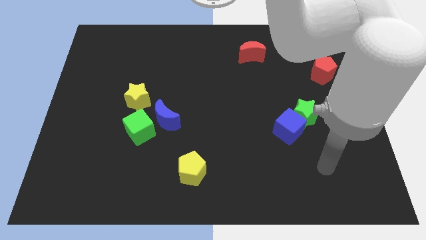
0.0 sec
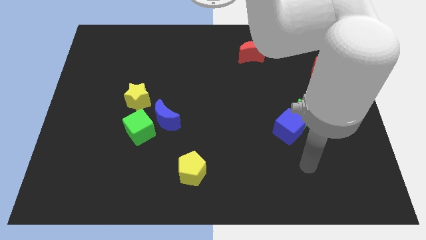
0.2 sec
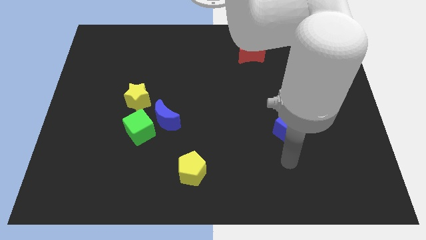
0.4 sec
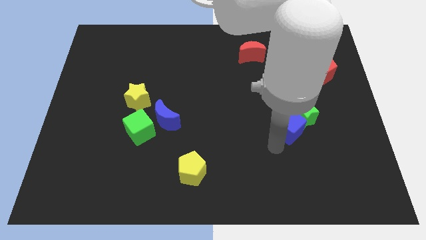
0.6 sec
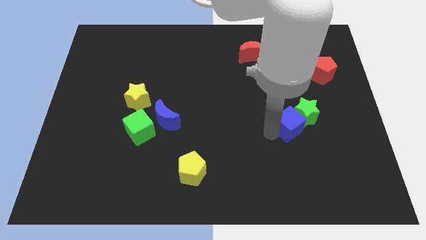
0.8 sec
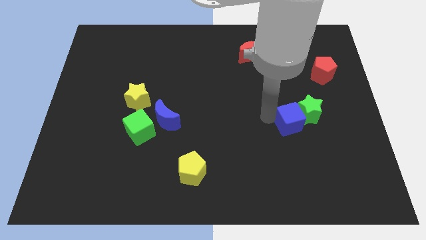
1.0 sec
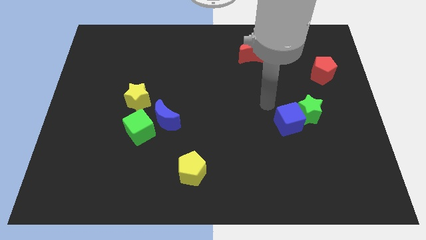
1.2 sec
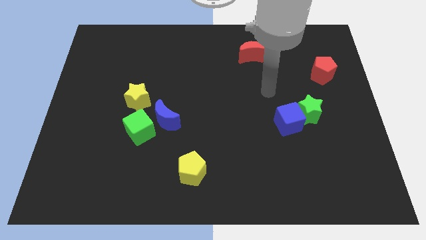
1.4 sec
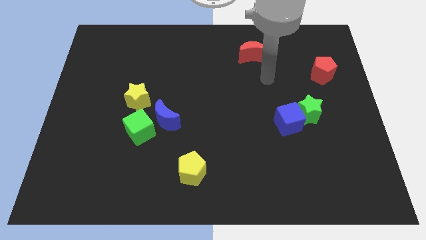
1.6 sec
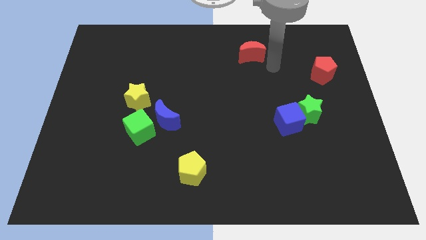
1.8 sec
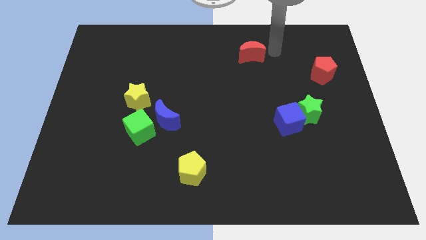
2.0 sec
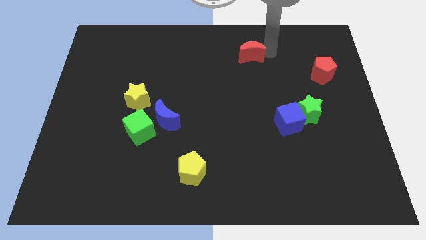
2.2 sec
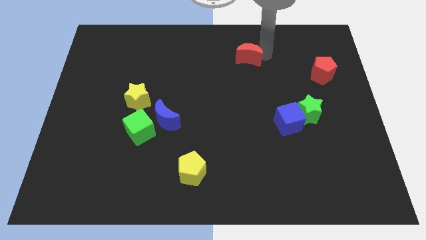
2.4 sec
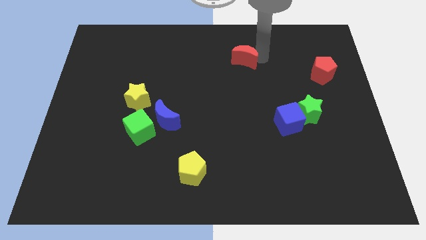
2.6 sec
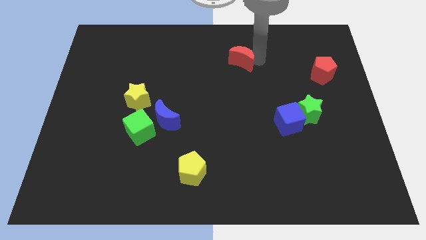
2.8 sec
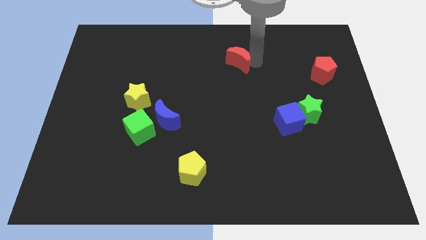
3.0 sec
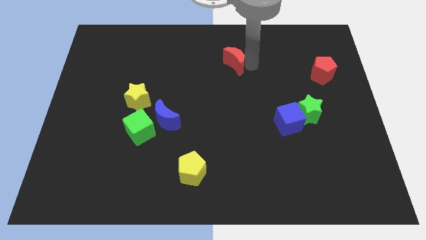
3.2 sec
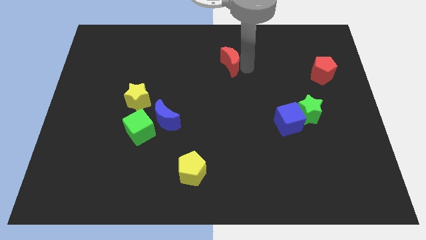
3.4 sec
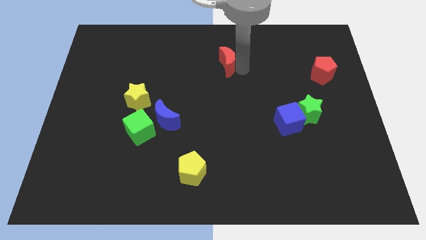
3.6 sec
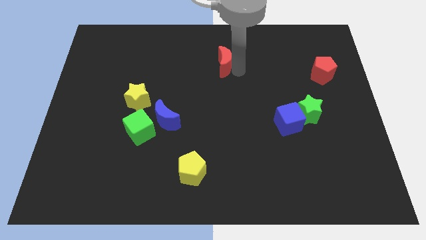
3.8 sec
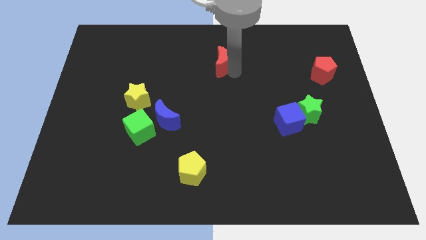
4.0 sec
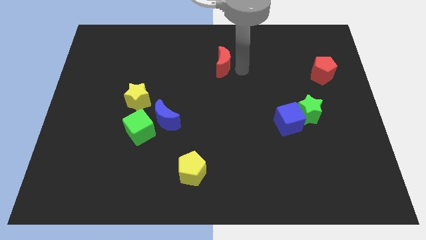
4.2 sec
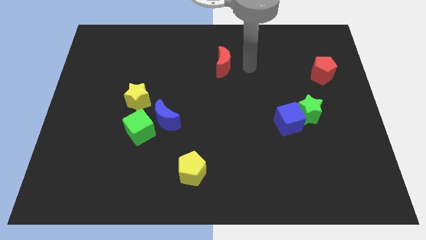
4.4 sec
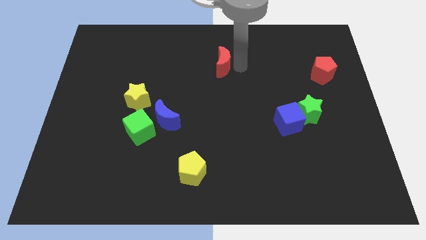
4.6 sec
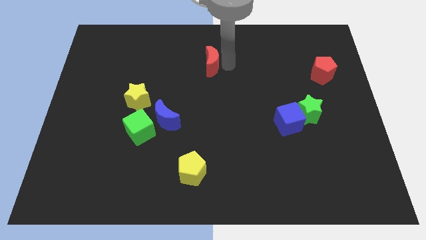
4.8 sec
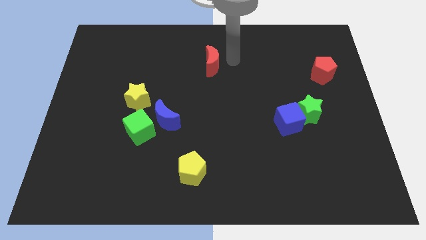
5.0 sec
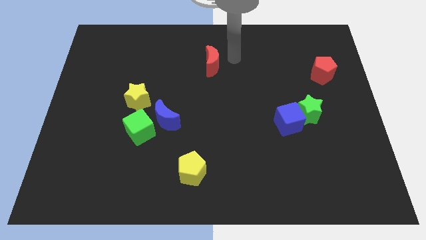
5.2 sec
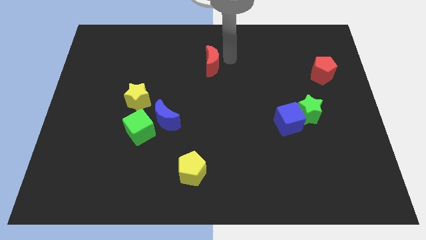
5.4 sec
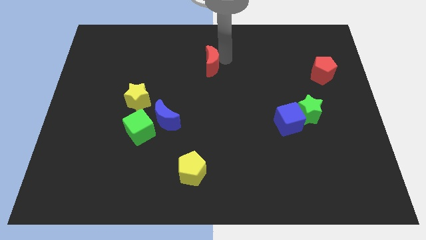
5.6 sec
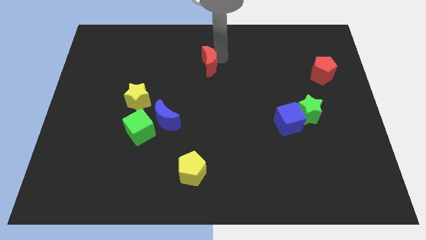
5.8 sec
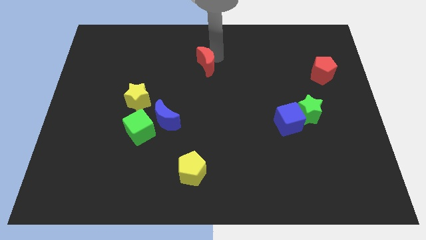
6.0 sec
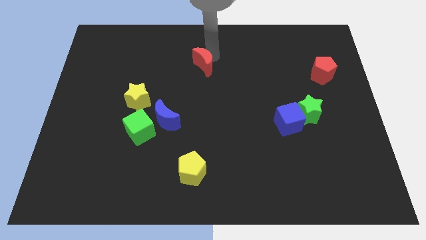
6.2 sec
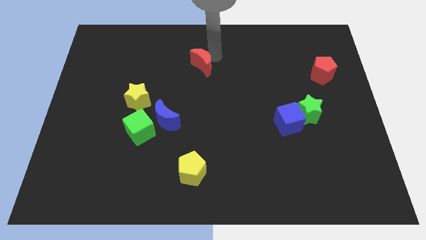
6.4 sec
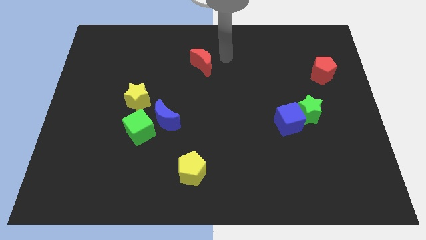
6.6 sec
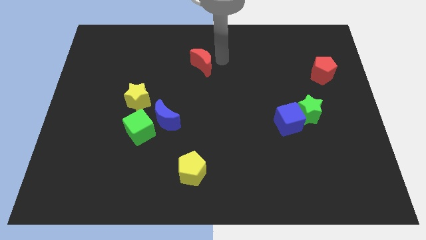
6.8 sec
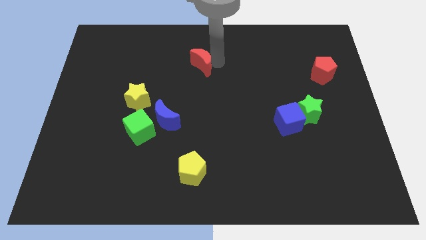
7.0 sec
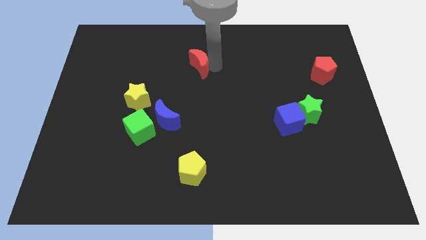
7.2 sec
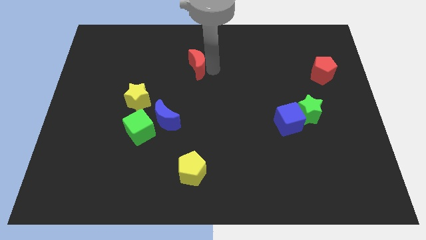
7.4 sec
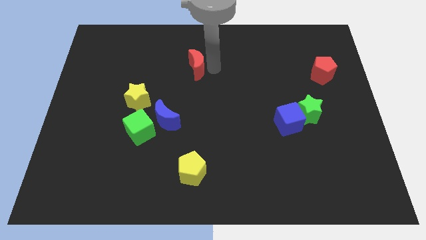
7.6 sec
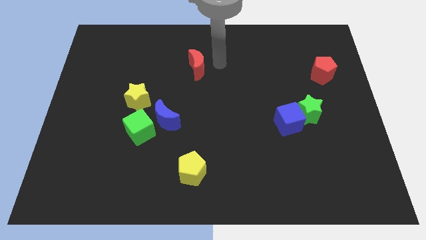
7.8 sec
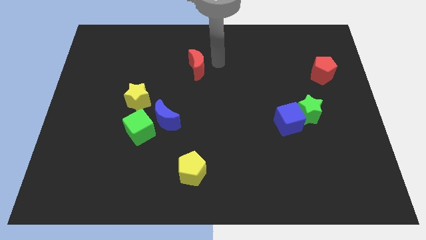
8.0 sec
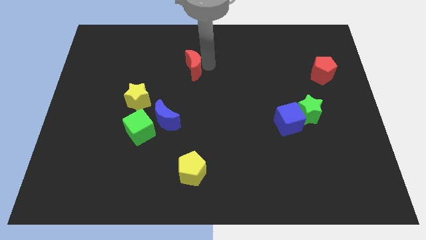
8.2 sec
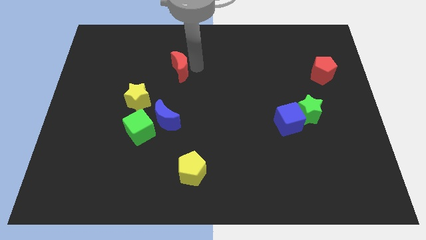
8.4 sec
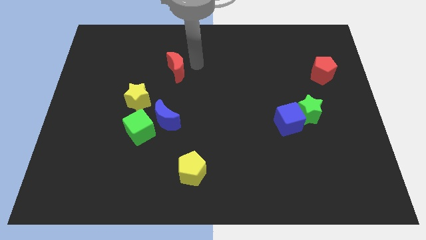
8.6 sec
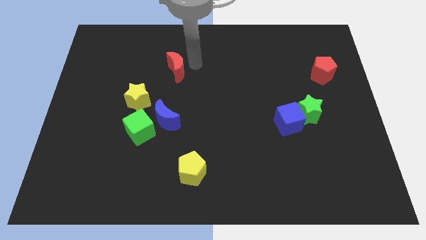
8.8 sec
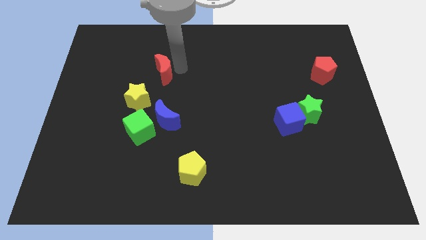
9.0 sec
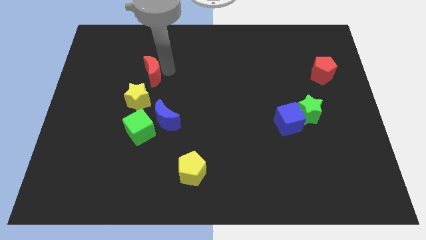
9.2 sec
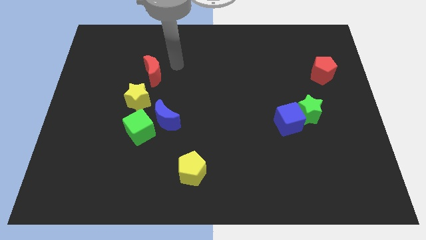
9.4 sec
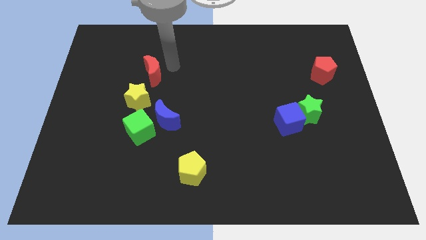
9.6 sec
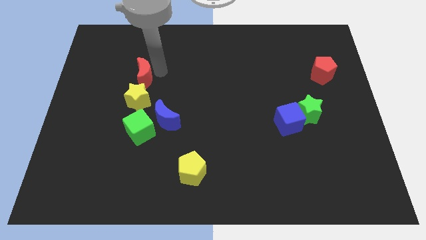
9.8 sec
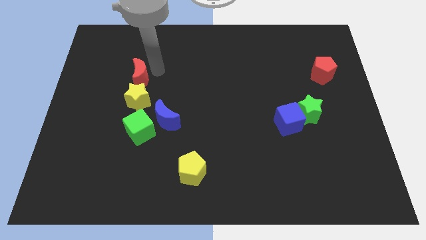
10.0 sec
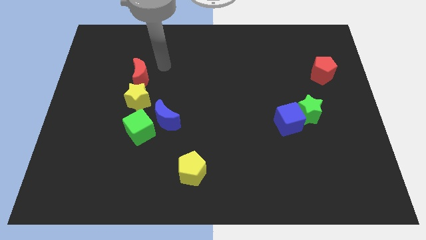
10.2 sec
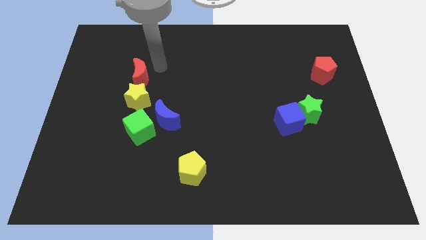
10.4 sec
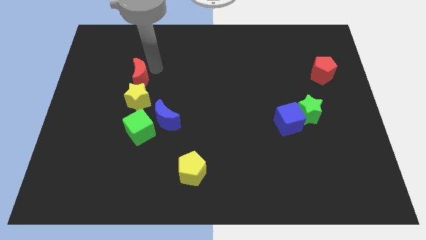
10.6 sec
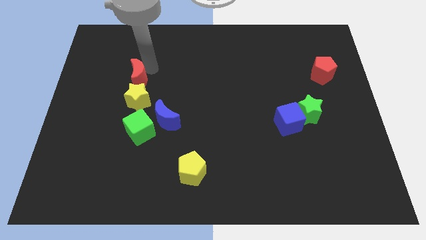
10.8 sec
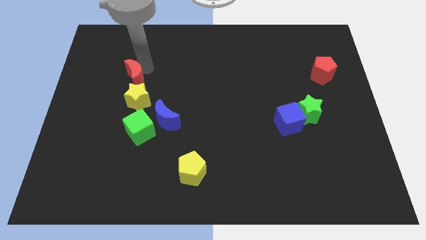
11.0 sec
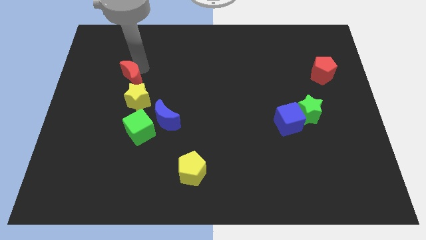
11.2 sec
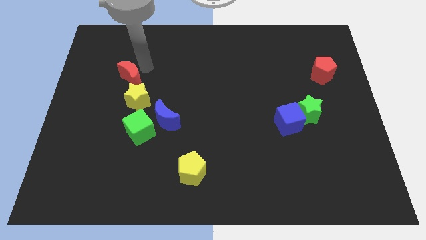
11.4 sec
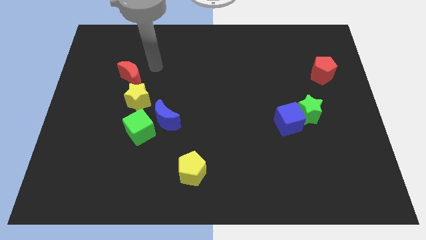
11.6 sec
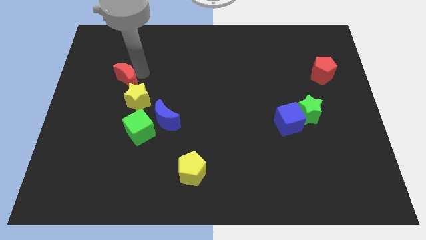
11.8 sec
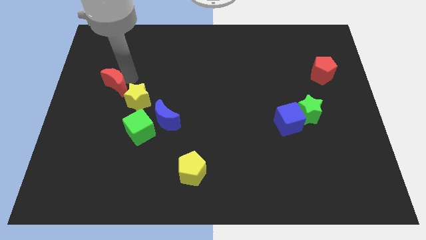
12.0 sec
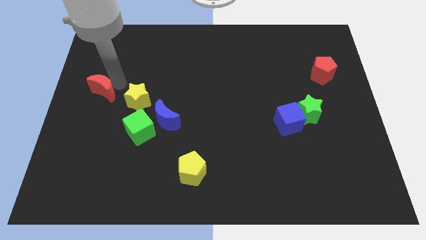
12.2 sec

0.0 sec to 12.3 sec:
slide the red moon to the left side of the board

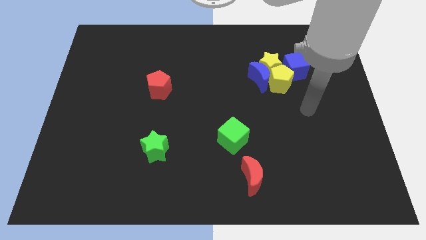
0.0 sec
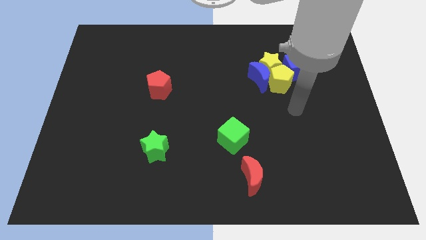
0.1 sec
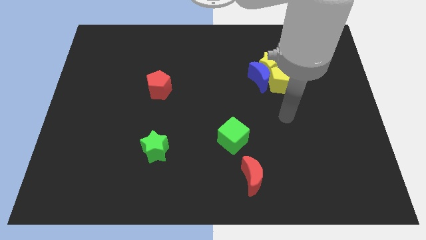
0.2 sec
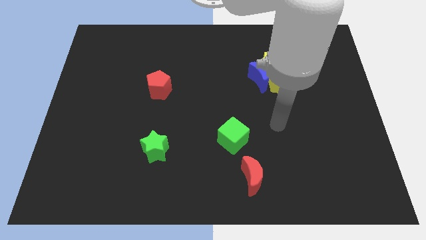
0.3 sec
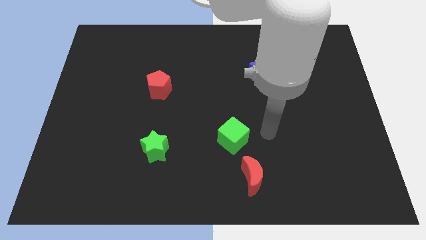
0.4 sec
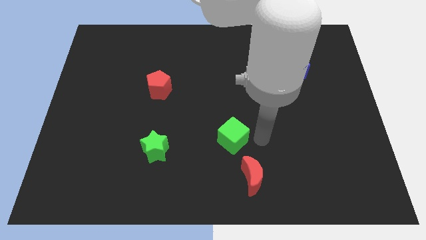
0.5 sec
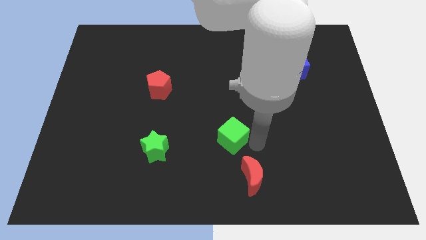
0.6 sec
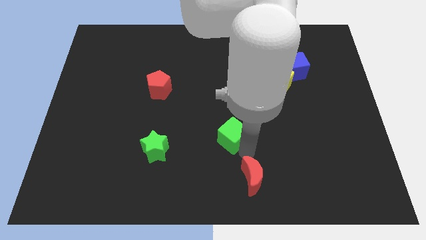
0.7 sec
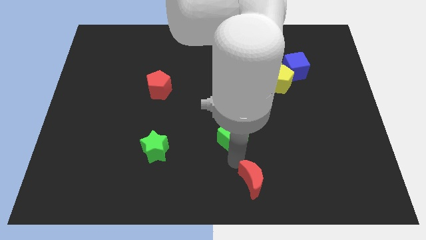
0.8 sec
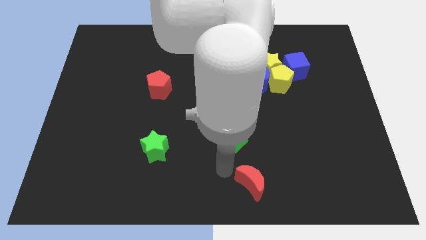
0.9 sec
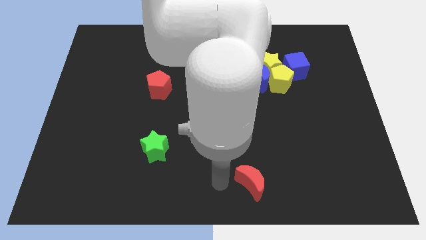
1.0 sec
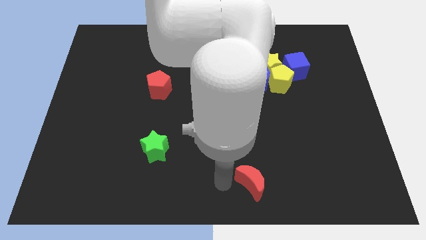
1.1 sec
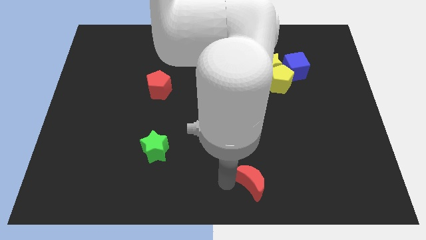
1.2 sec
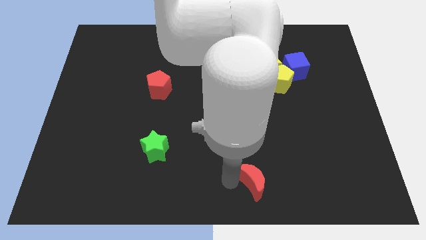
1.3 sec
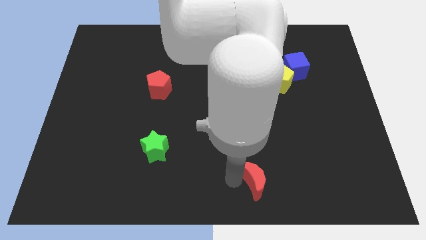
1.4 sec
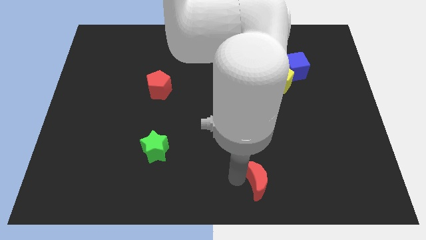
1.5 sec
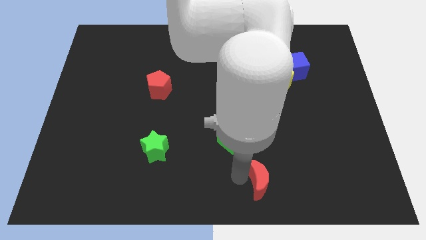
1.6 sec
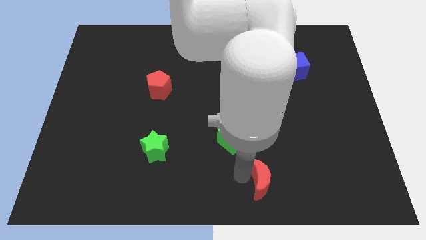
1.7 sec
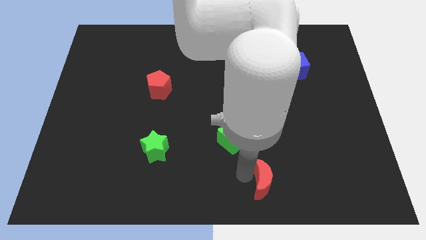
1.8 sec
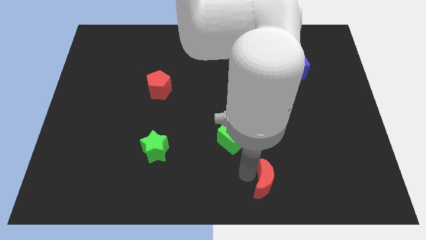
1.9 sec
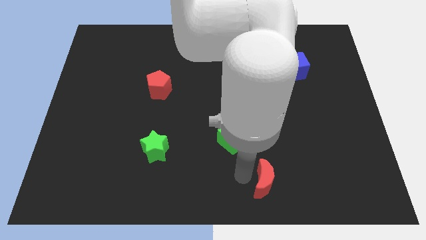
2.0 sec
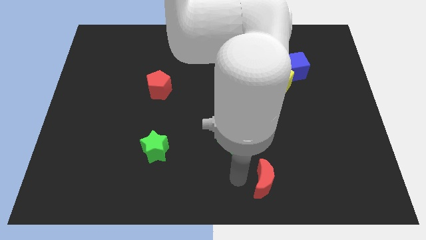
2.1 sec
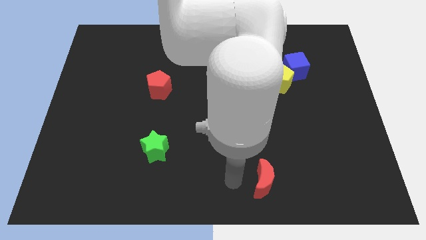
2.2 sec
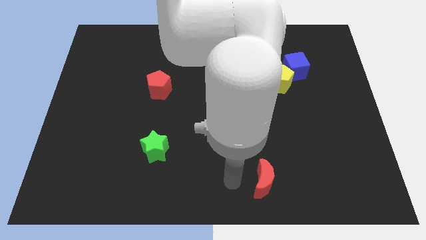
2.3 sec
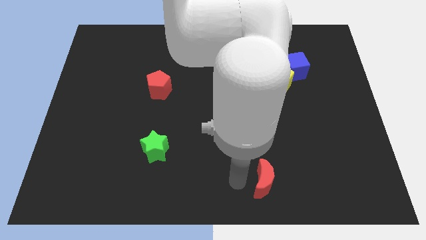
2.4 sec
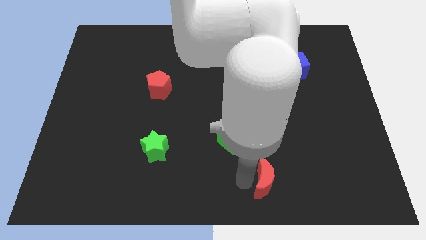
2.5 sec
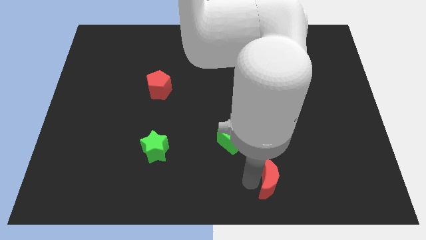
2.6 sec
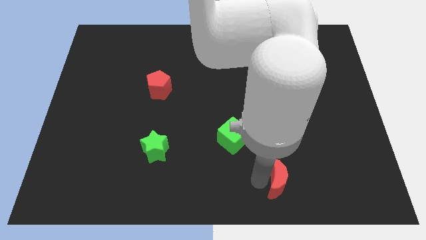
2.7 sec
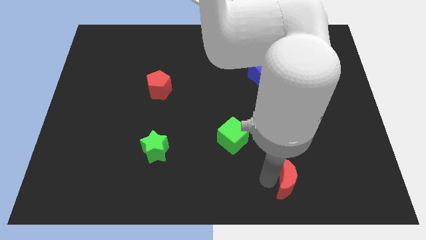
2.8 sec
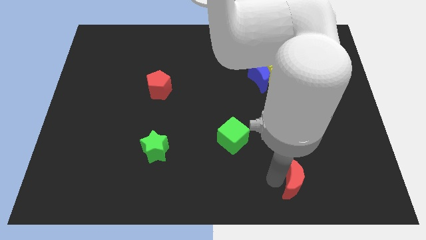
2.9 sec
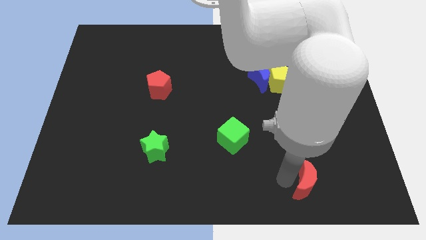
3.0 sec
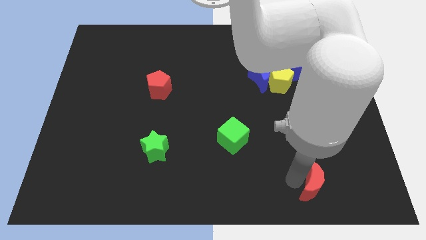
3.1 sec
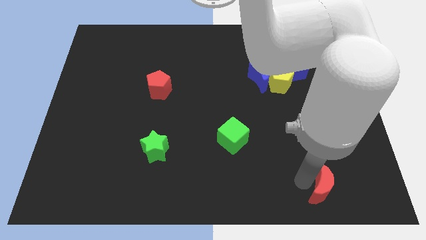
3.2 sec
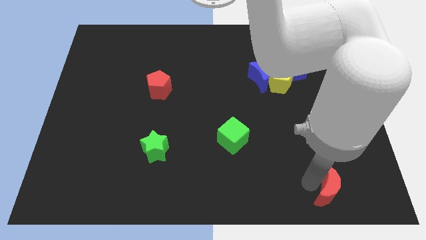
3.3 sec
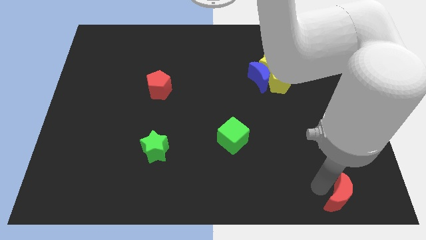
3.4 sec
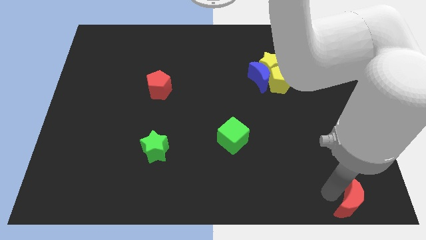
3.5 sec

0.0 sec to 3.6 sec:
push the red moon to the bottom right corner
